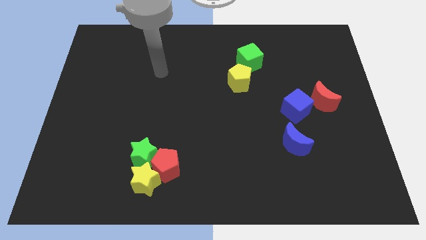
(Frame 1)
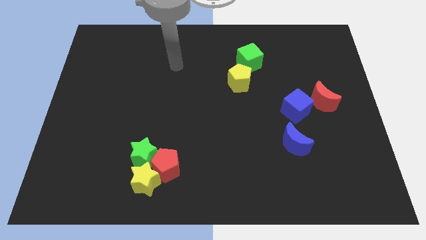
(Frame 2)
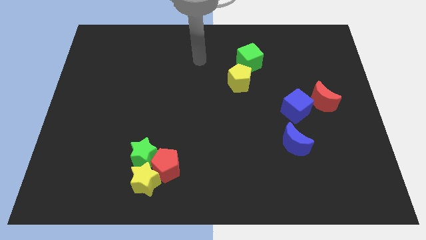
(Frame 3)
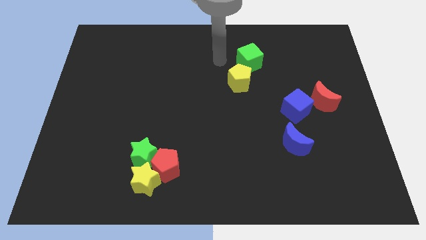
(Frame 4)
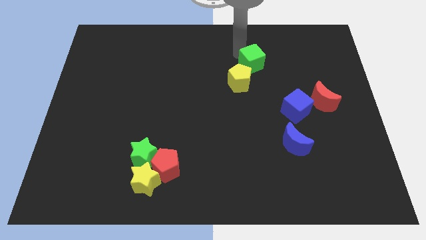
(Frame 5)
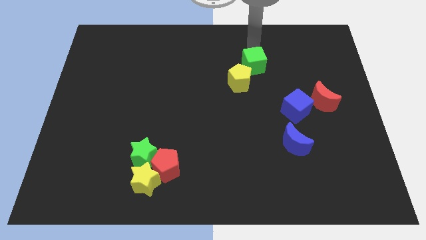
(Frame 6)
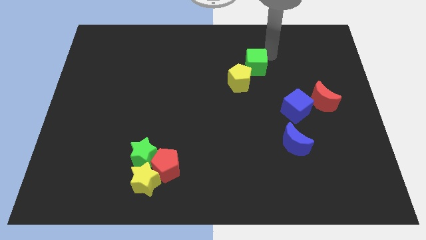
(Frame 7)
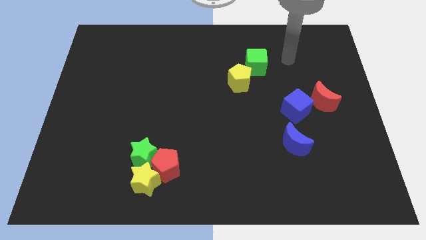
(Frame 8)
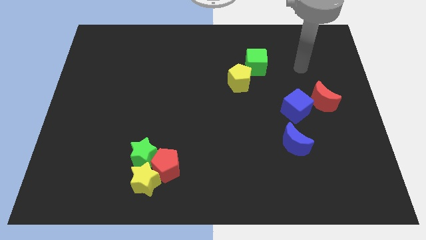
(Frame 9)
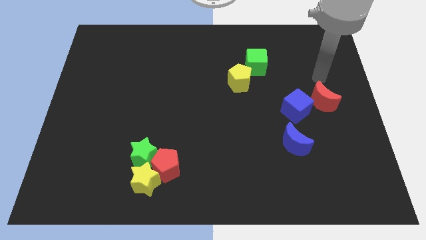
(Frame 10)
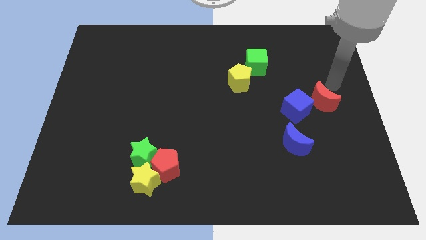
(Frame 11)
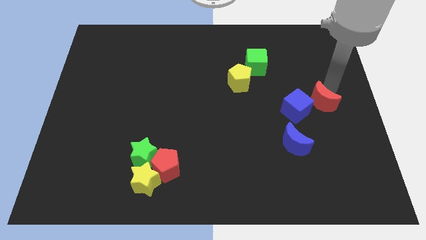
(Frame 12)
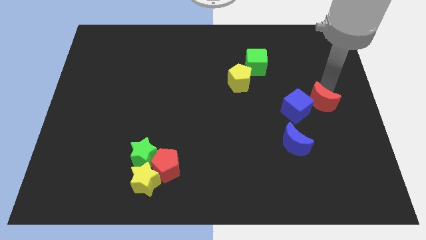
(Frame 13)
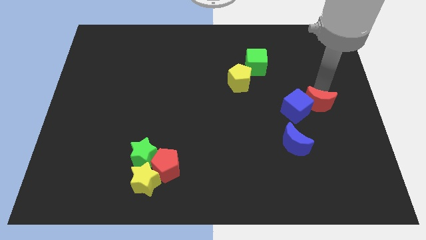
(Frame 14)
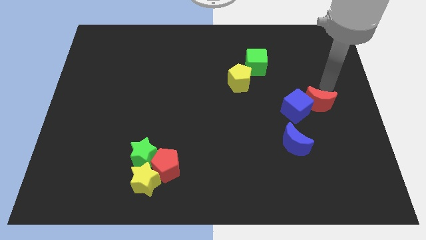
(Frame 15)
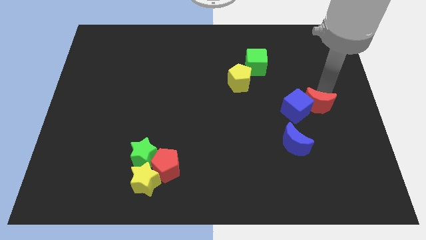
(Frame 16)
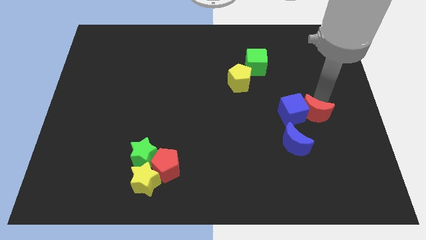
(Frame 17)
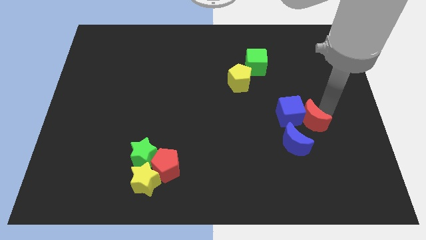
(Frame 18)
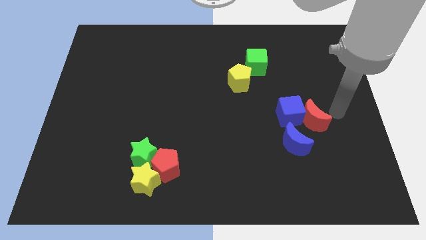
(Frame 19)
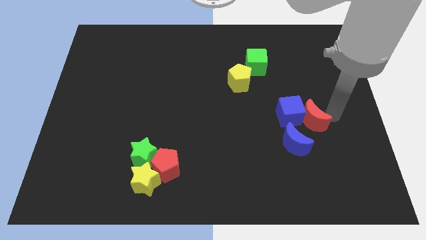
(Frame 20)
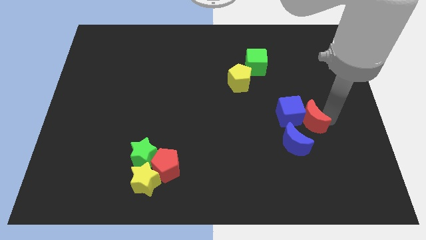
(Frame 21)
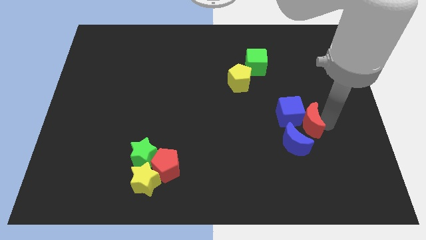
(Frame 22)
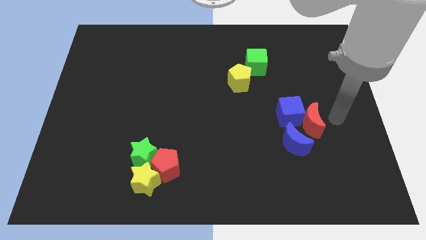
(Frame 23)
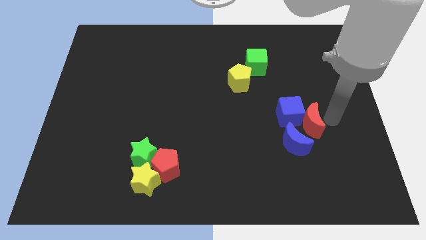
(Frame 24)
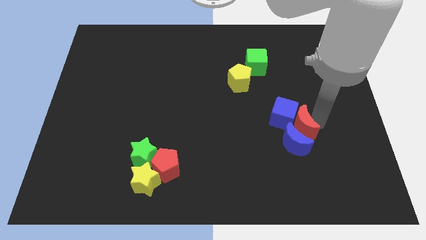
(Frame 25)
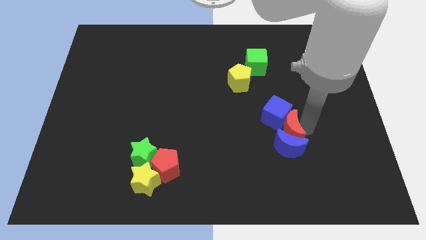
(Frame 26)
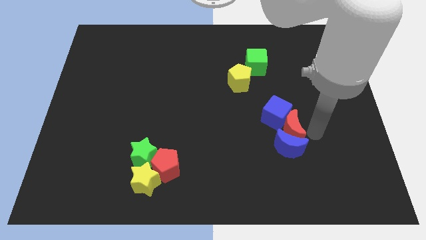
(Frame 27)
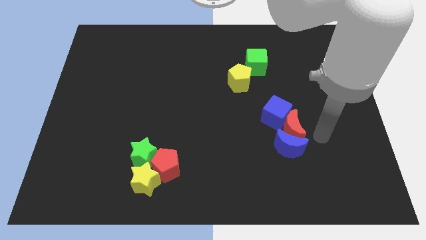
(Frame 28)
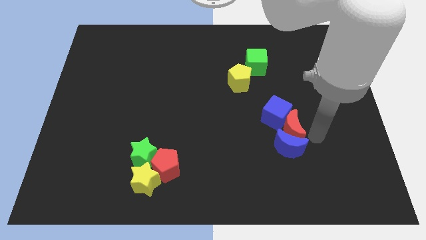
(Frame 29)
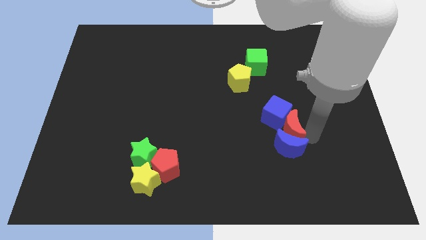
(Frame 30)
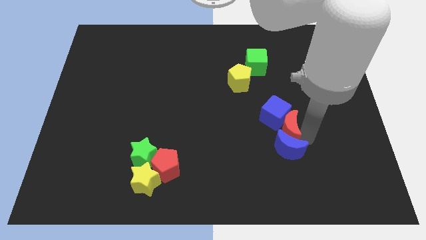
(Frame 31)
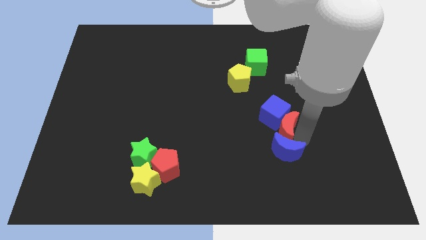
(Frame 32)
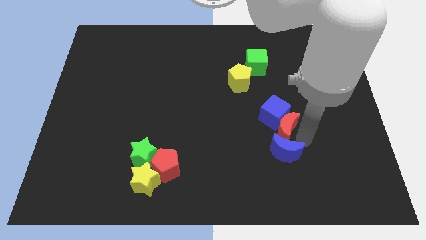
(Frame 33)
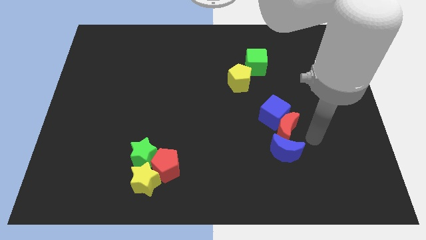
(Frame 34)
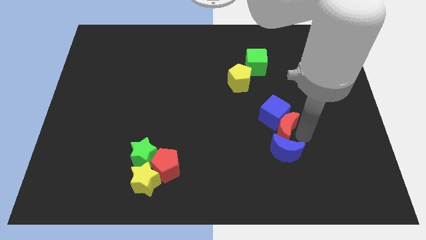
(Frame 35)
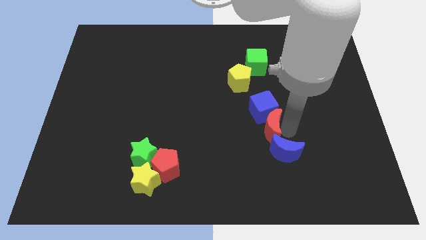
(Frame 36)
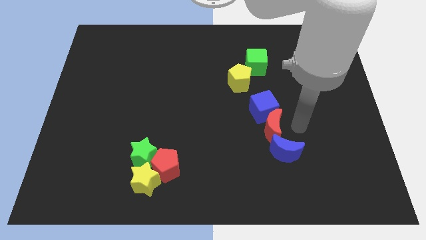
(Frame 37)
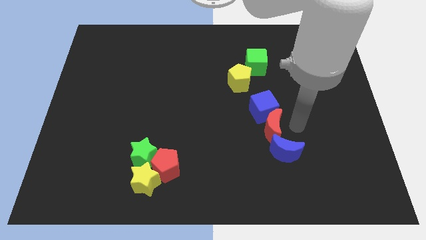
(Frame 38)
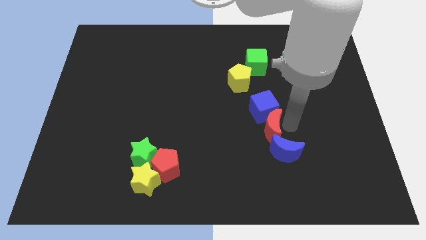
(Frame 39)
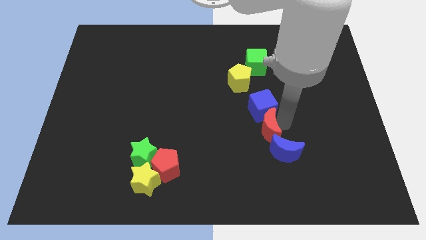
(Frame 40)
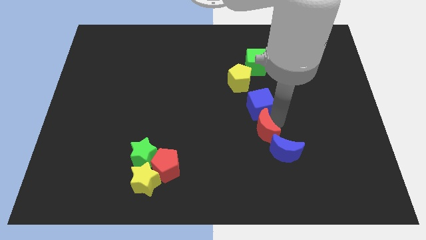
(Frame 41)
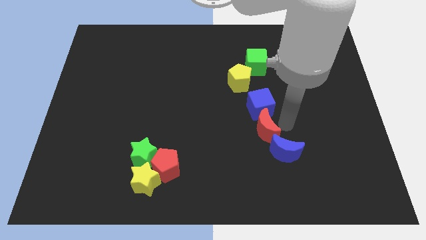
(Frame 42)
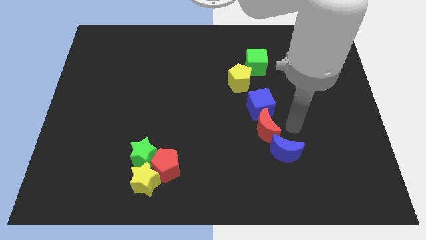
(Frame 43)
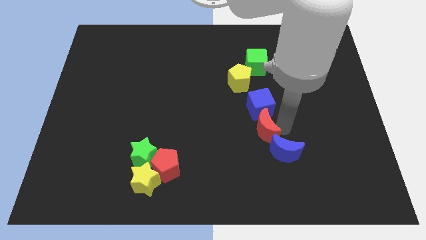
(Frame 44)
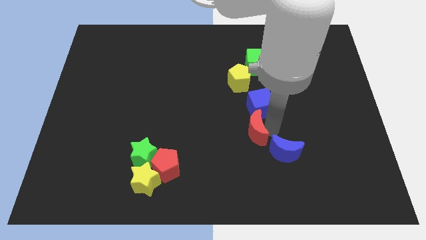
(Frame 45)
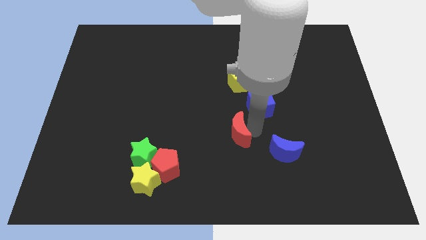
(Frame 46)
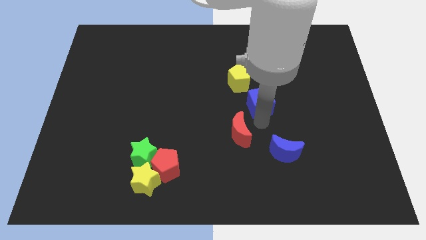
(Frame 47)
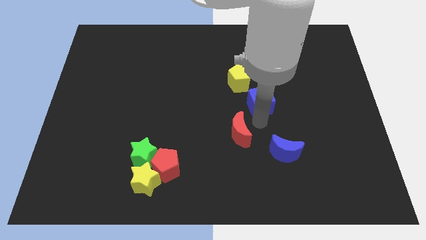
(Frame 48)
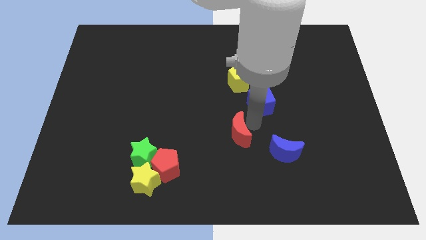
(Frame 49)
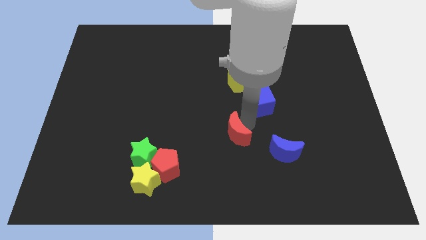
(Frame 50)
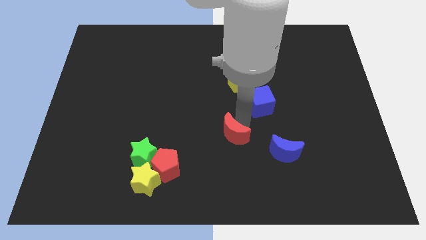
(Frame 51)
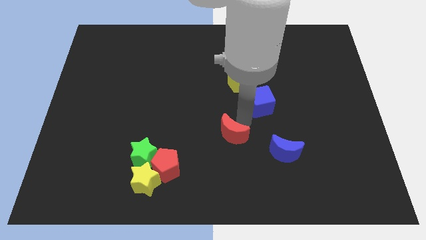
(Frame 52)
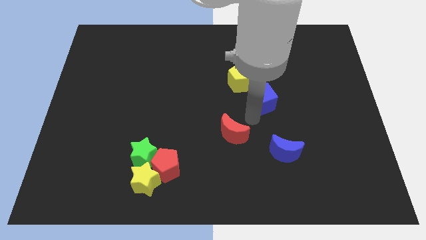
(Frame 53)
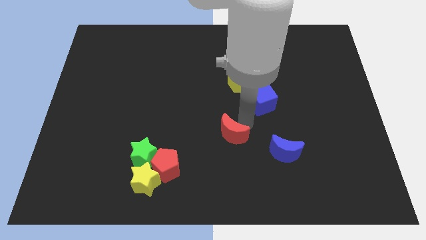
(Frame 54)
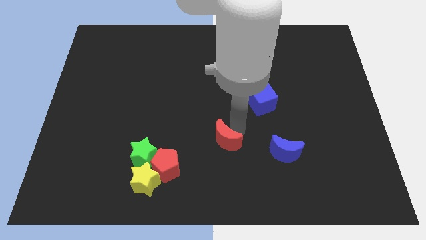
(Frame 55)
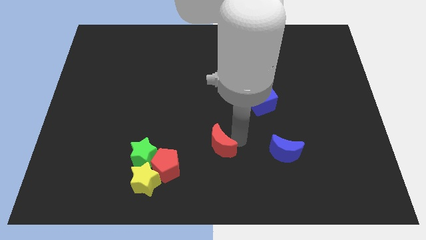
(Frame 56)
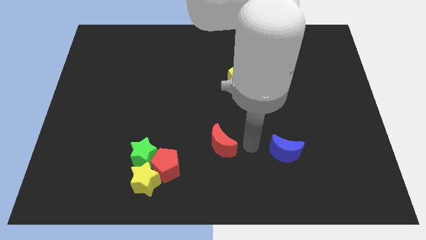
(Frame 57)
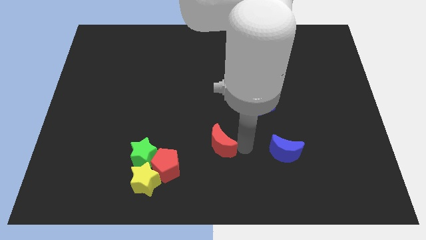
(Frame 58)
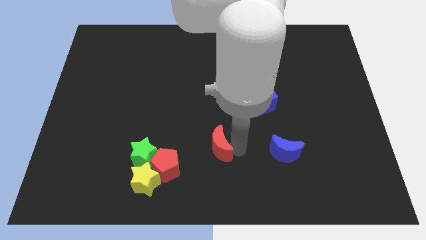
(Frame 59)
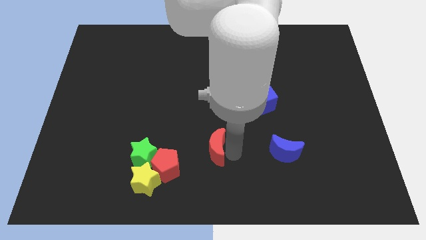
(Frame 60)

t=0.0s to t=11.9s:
push the red moon to the top right side of the red pentagon

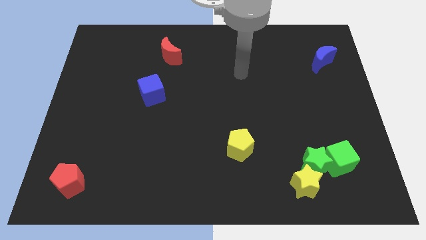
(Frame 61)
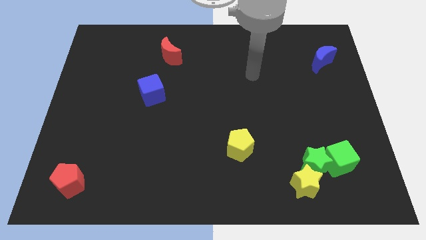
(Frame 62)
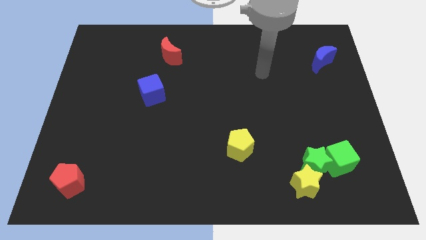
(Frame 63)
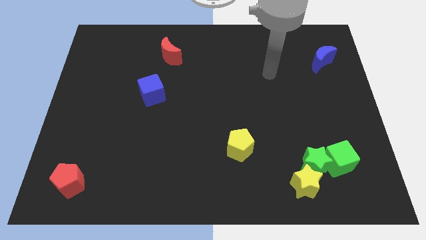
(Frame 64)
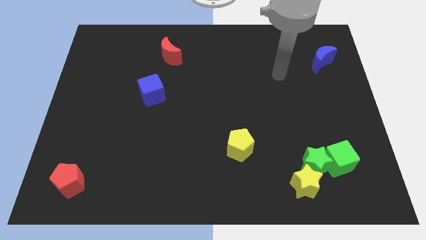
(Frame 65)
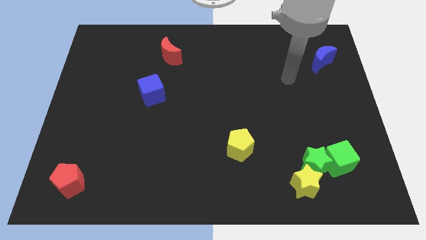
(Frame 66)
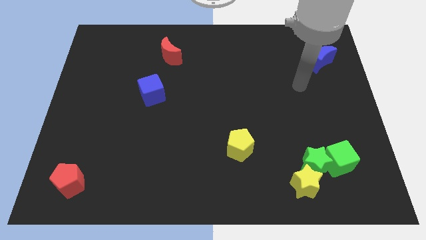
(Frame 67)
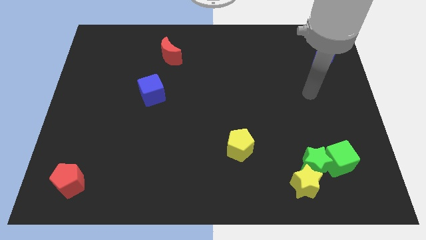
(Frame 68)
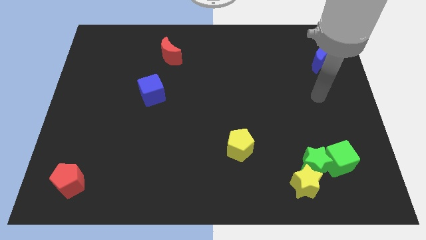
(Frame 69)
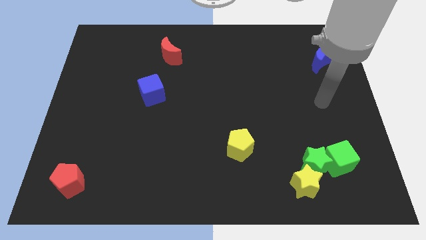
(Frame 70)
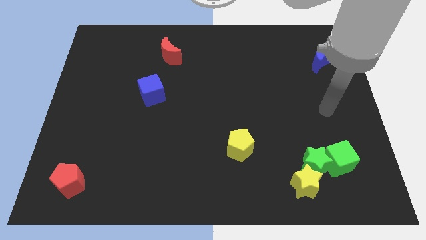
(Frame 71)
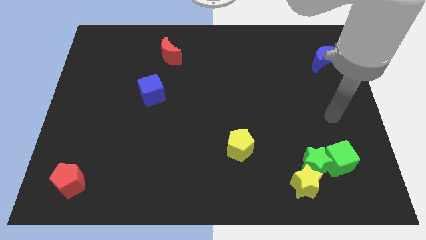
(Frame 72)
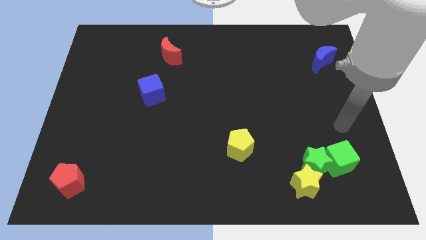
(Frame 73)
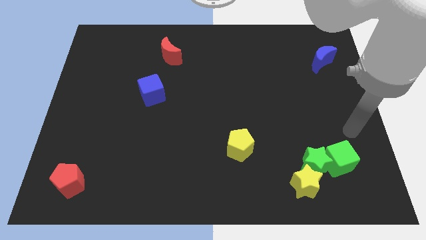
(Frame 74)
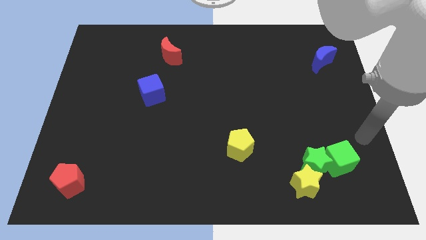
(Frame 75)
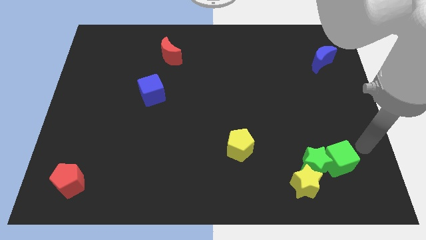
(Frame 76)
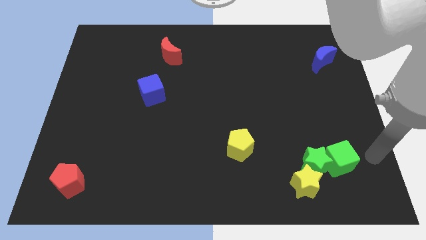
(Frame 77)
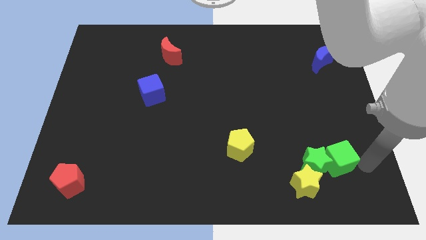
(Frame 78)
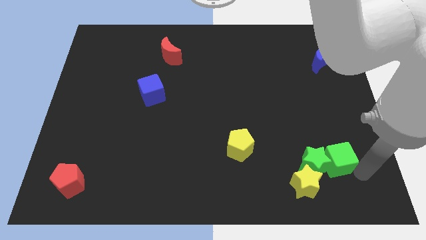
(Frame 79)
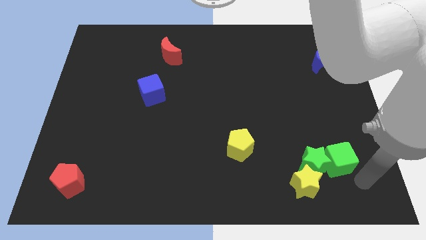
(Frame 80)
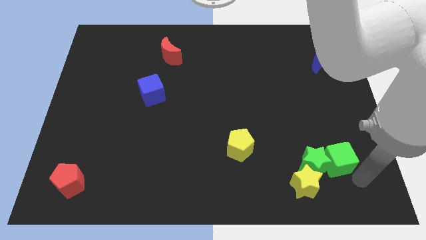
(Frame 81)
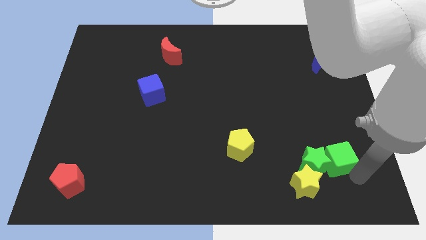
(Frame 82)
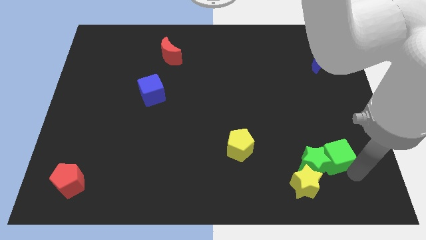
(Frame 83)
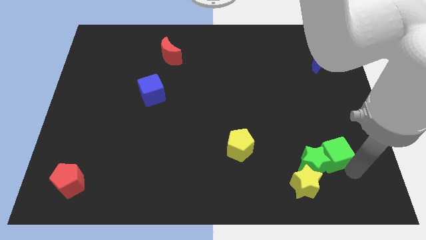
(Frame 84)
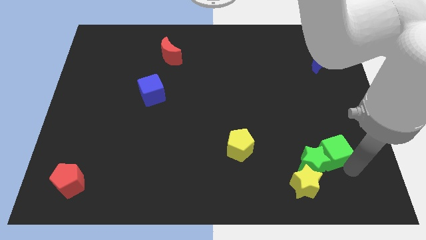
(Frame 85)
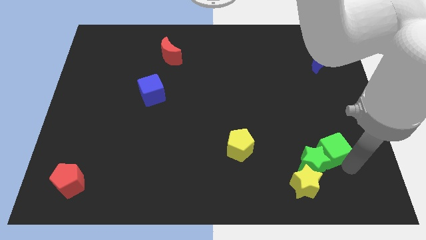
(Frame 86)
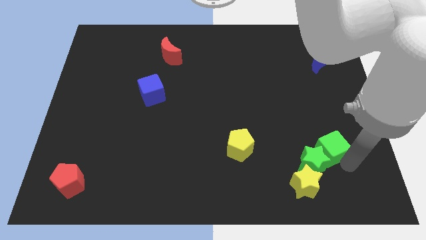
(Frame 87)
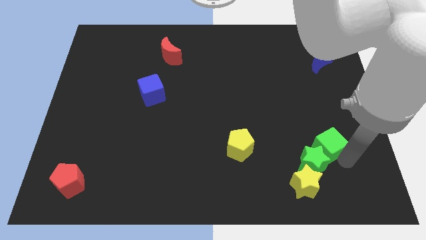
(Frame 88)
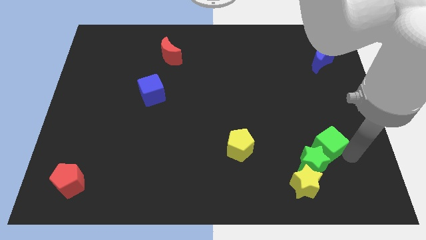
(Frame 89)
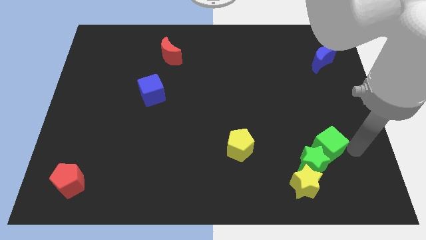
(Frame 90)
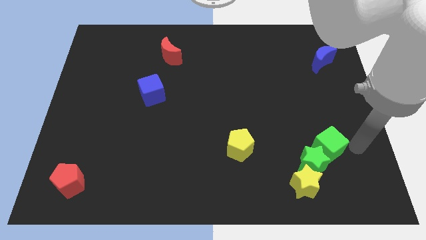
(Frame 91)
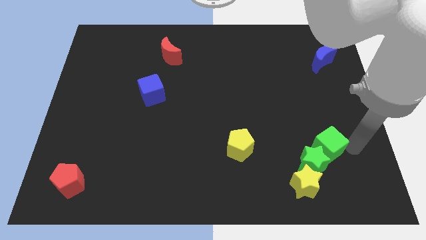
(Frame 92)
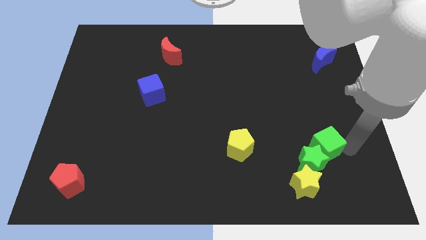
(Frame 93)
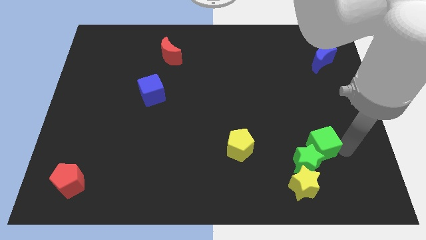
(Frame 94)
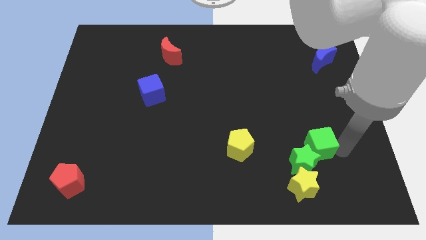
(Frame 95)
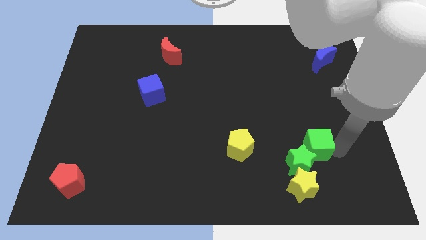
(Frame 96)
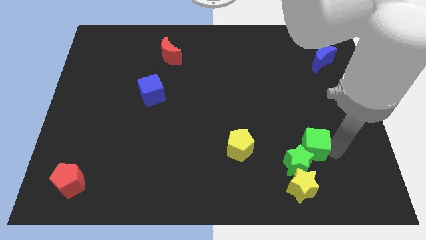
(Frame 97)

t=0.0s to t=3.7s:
move the green cube right of the yellow pentagon
